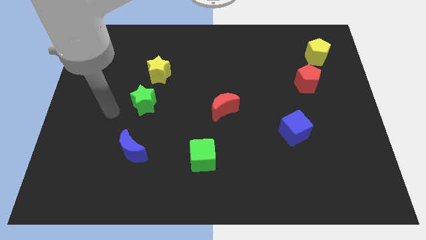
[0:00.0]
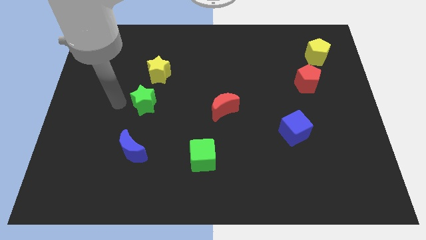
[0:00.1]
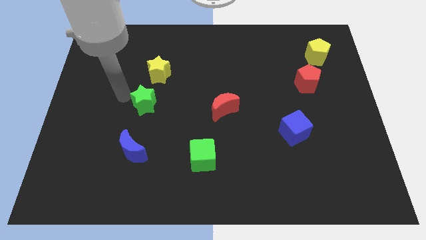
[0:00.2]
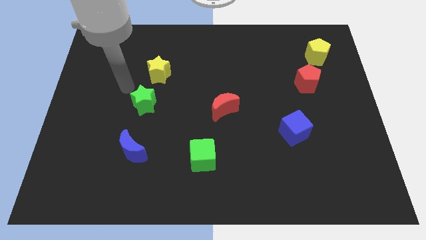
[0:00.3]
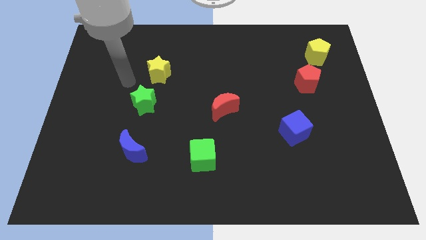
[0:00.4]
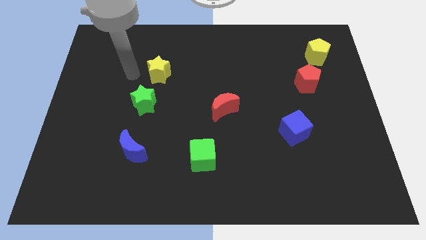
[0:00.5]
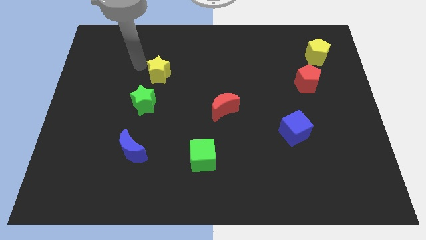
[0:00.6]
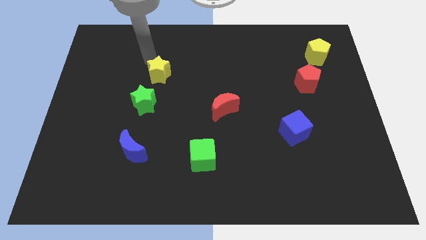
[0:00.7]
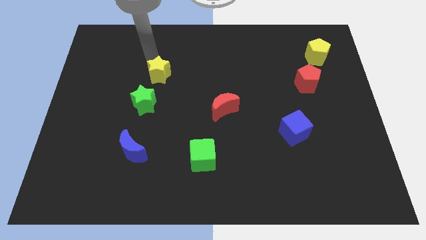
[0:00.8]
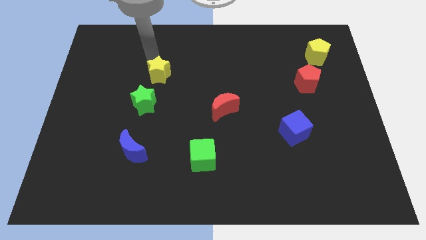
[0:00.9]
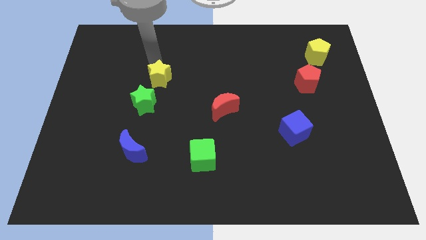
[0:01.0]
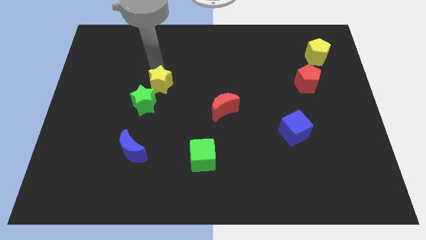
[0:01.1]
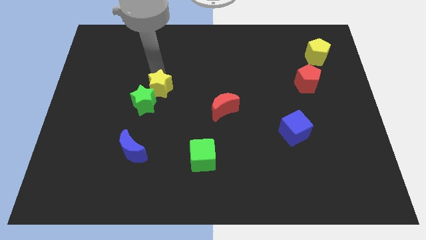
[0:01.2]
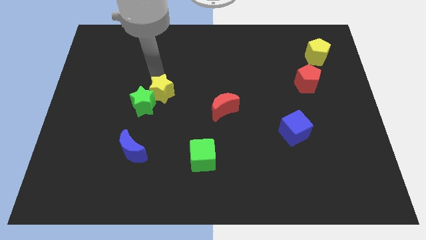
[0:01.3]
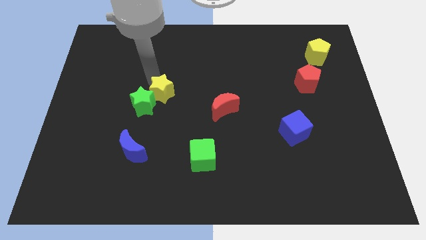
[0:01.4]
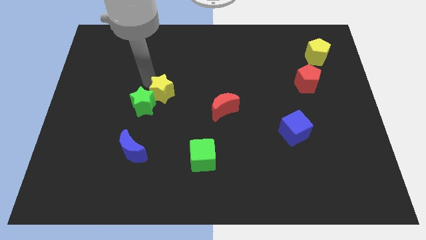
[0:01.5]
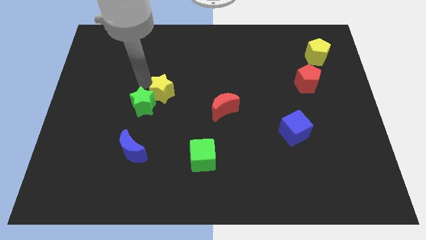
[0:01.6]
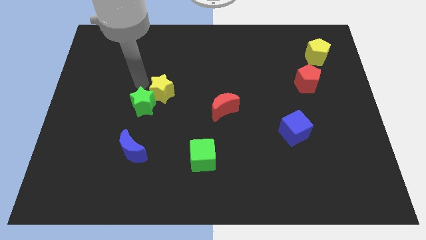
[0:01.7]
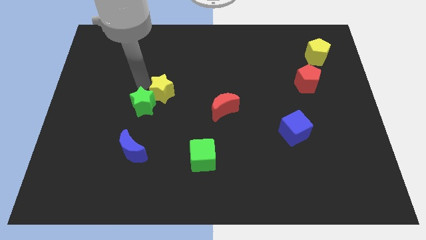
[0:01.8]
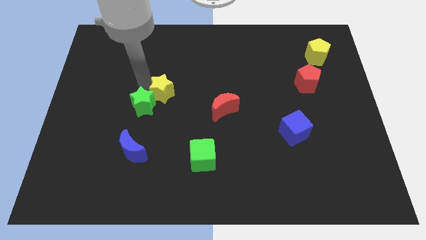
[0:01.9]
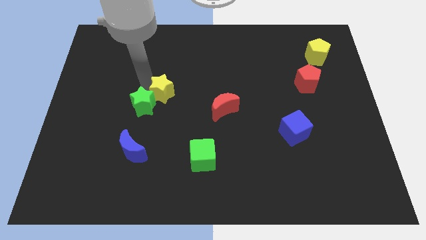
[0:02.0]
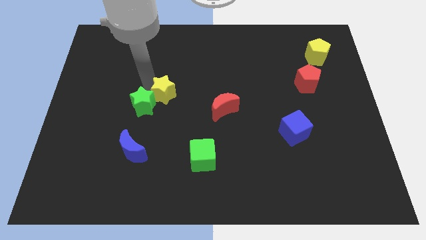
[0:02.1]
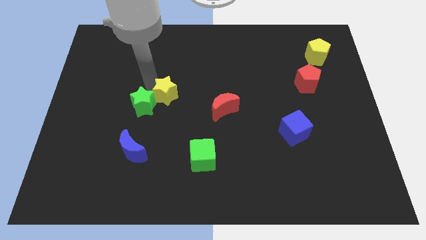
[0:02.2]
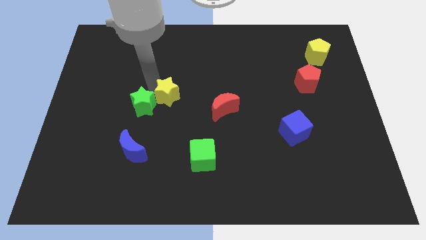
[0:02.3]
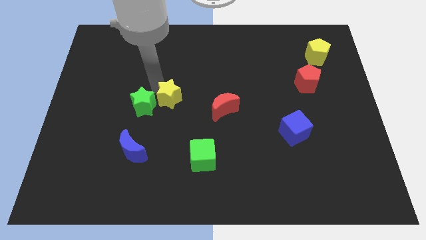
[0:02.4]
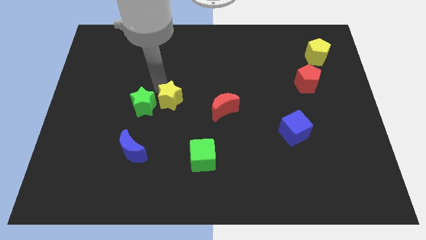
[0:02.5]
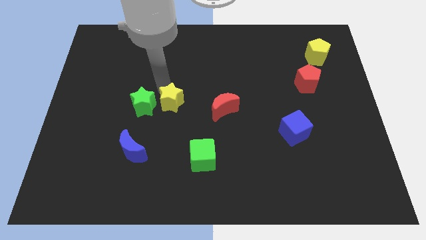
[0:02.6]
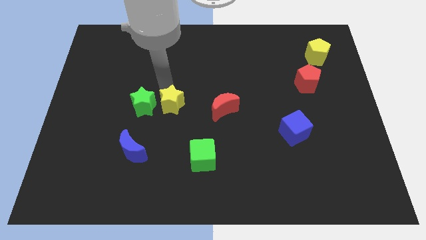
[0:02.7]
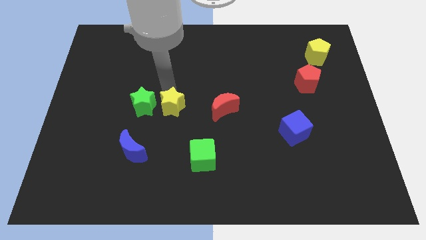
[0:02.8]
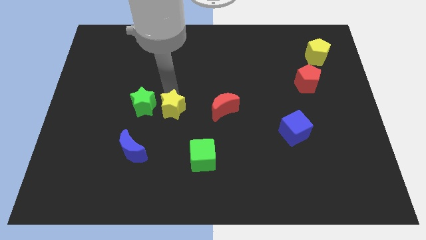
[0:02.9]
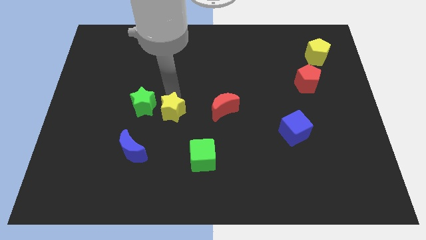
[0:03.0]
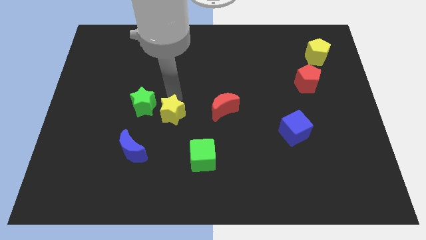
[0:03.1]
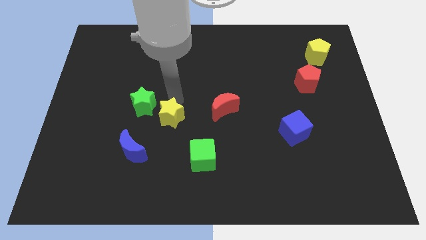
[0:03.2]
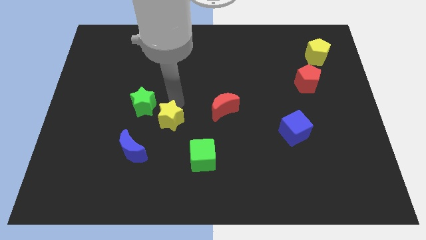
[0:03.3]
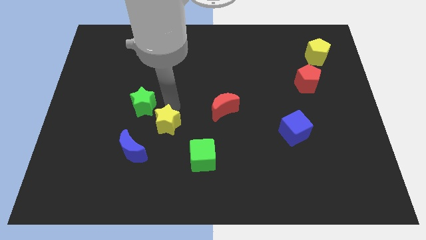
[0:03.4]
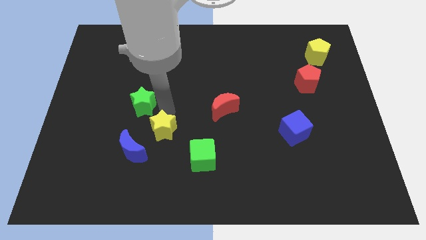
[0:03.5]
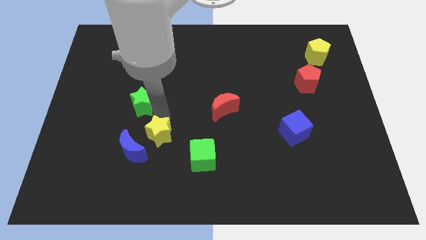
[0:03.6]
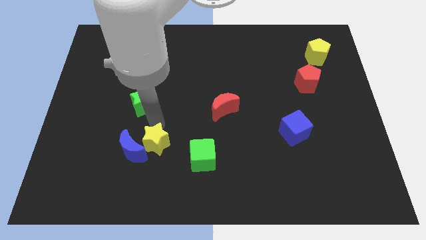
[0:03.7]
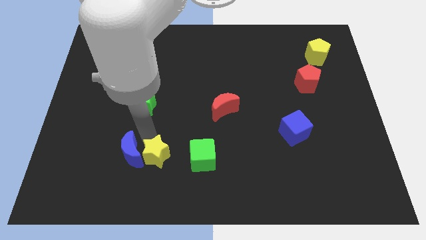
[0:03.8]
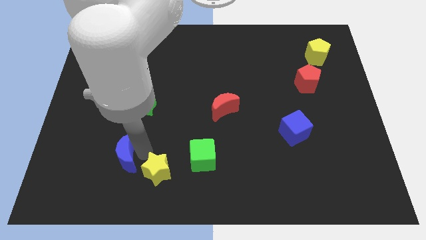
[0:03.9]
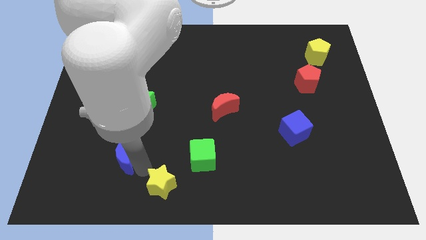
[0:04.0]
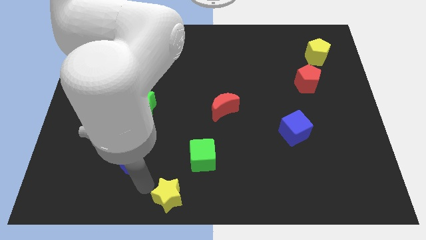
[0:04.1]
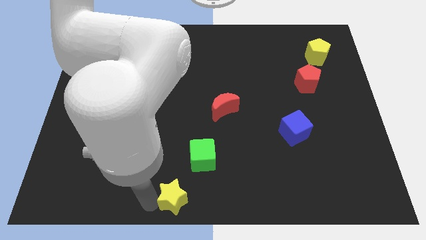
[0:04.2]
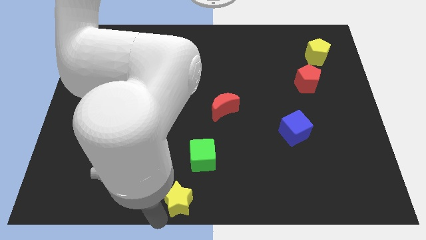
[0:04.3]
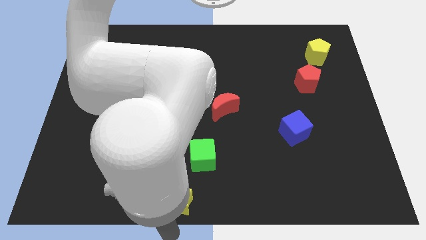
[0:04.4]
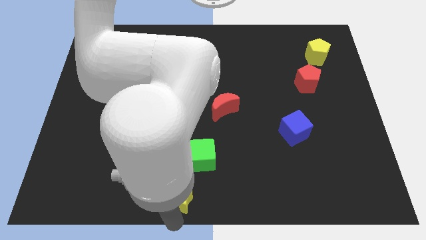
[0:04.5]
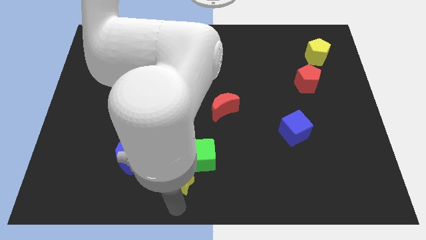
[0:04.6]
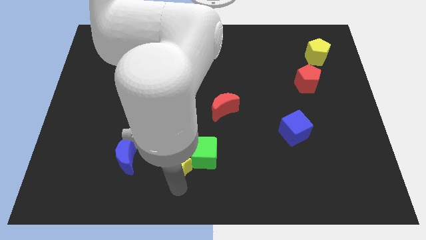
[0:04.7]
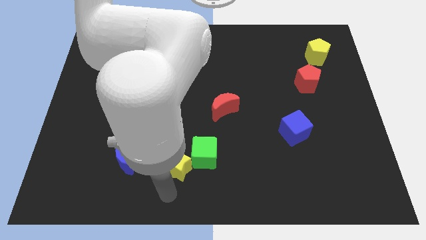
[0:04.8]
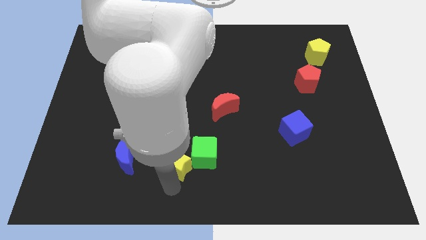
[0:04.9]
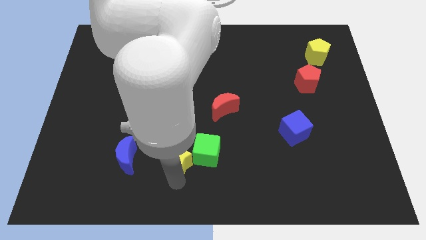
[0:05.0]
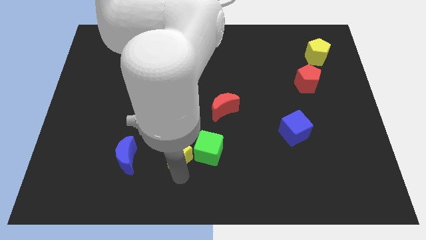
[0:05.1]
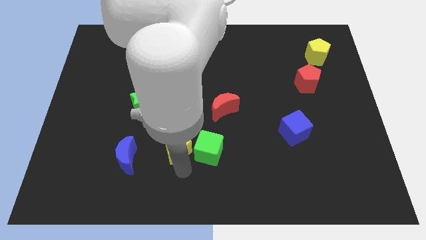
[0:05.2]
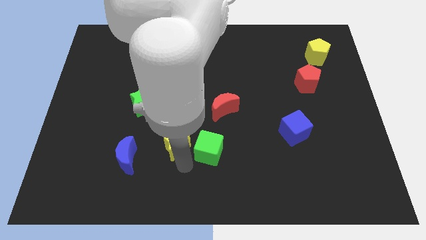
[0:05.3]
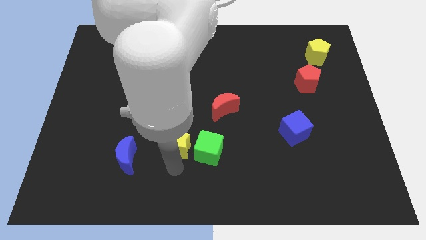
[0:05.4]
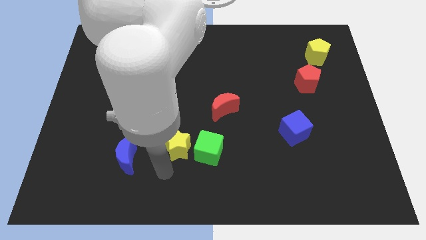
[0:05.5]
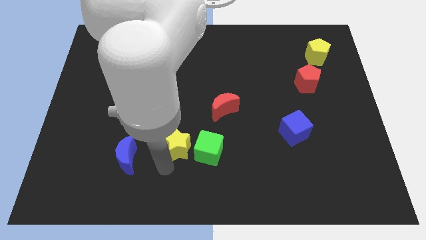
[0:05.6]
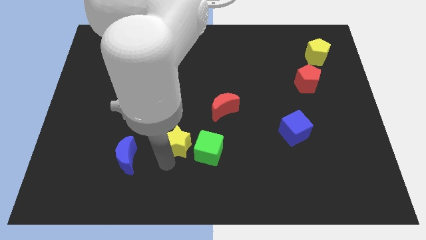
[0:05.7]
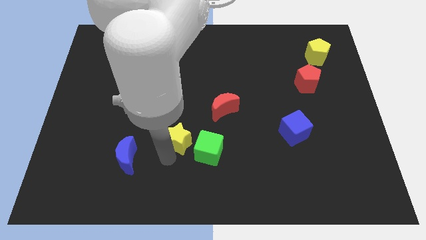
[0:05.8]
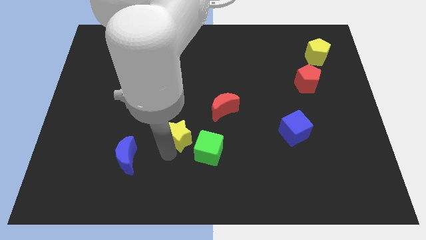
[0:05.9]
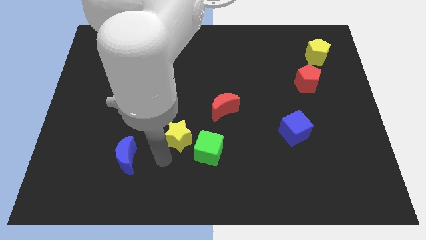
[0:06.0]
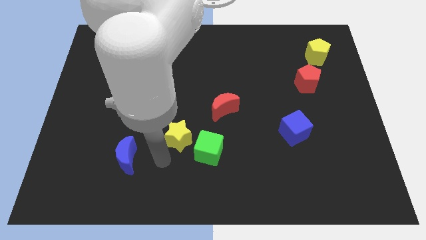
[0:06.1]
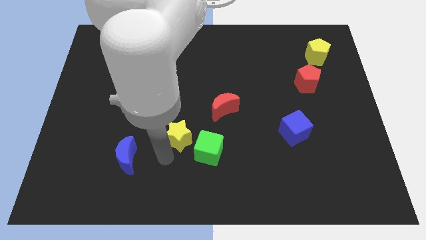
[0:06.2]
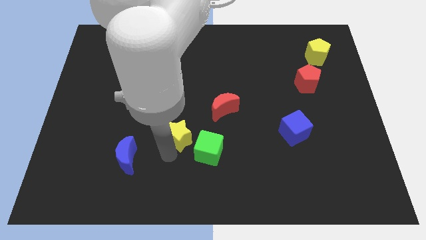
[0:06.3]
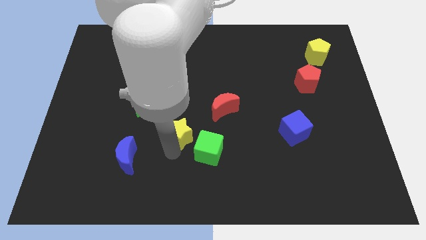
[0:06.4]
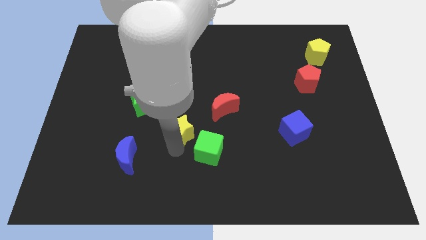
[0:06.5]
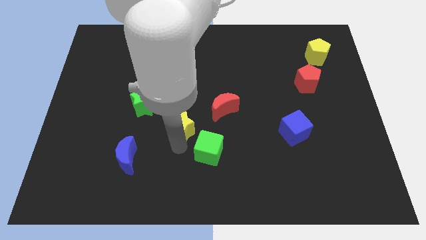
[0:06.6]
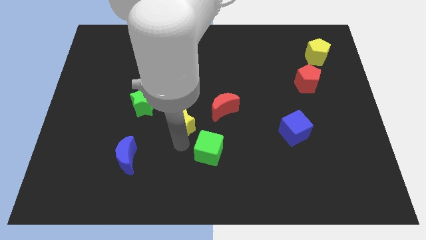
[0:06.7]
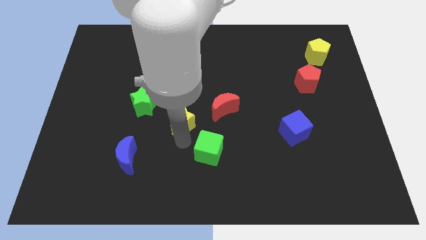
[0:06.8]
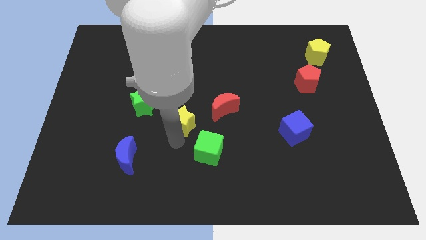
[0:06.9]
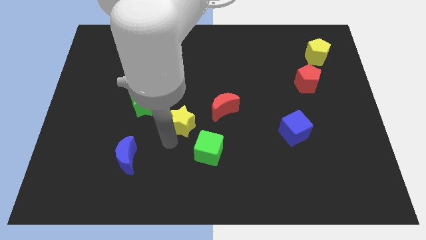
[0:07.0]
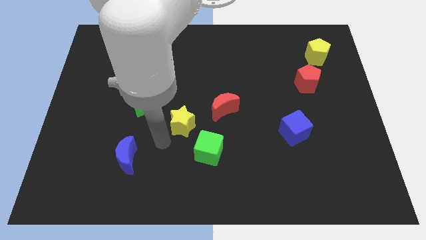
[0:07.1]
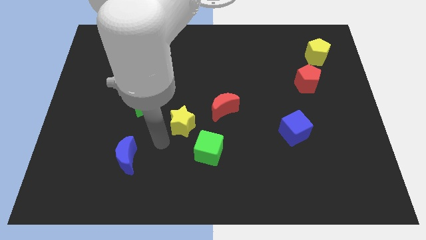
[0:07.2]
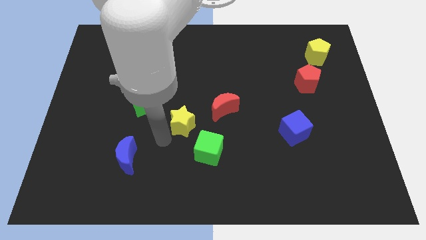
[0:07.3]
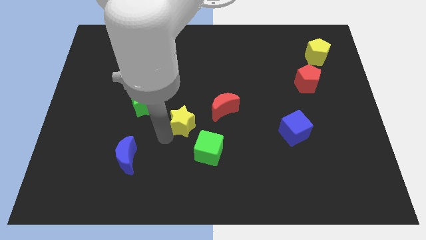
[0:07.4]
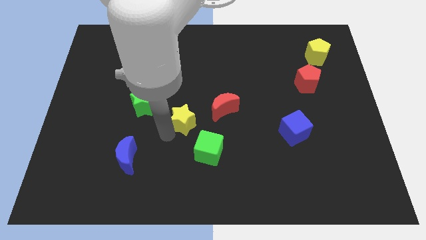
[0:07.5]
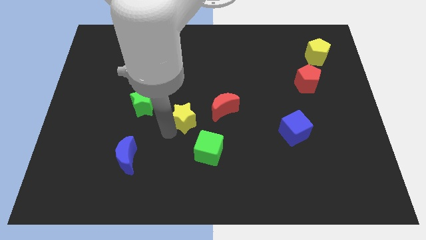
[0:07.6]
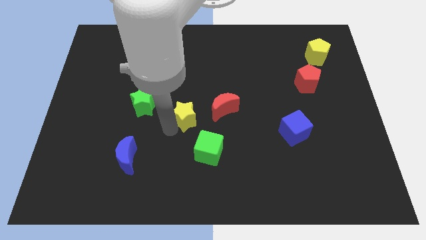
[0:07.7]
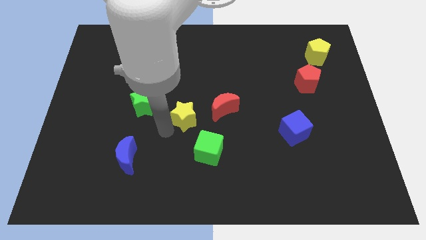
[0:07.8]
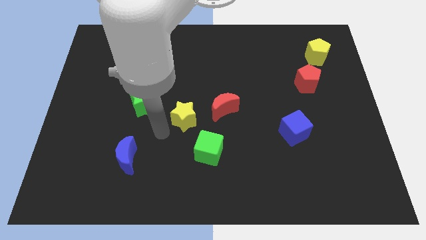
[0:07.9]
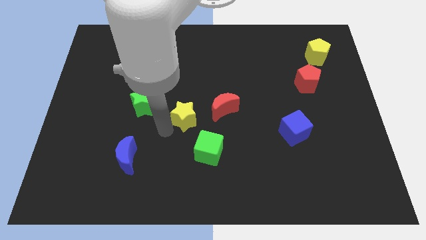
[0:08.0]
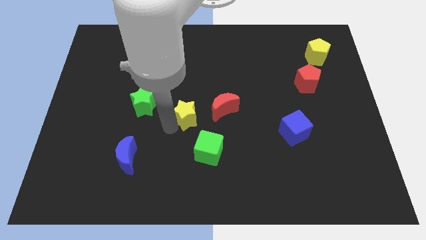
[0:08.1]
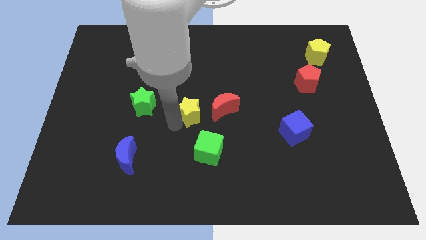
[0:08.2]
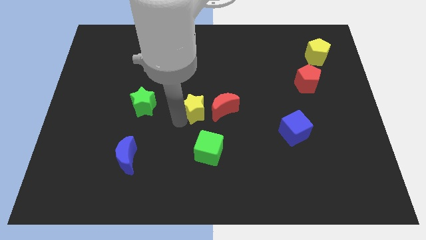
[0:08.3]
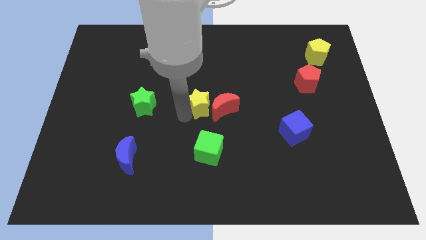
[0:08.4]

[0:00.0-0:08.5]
slide the yellow star to the red moon
